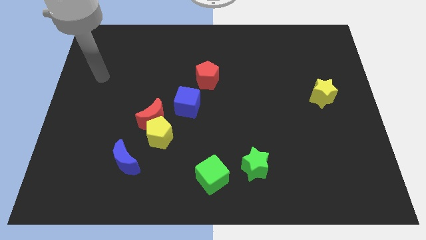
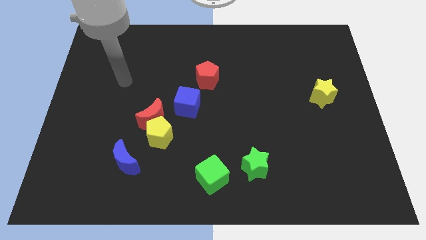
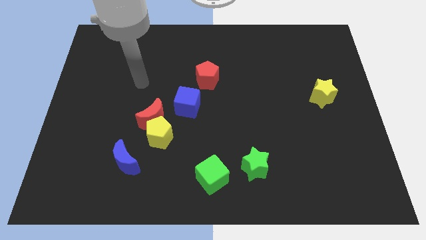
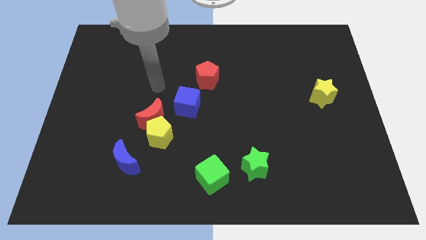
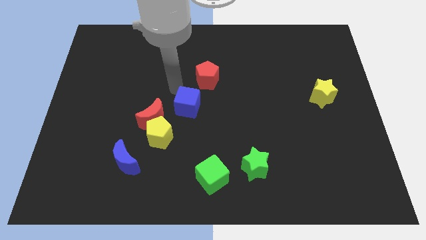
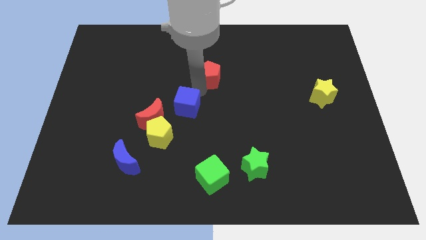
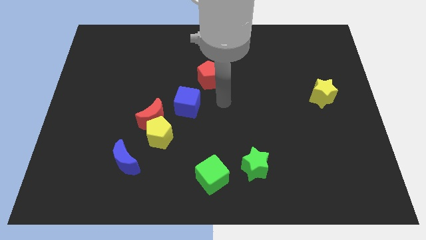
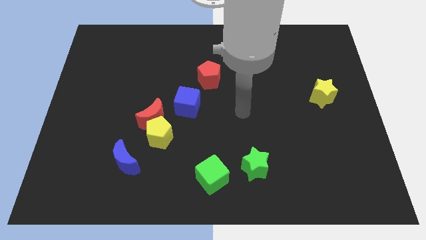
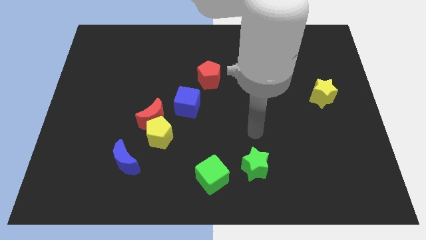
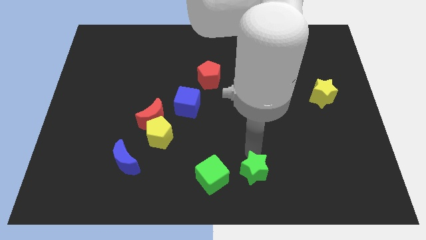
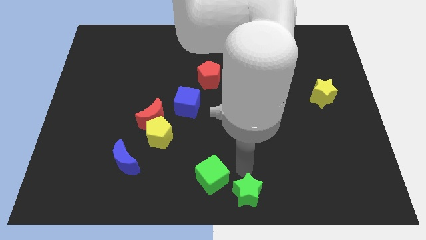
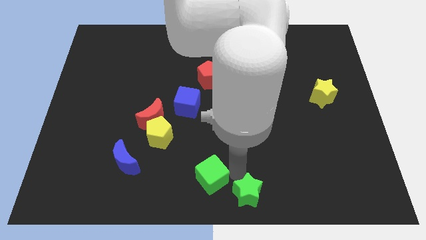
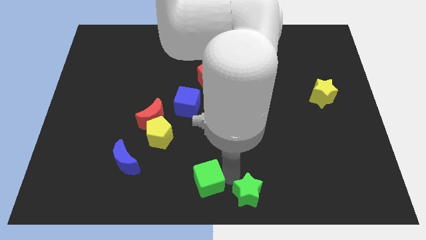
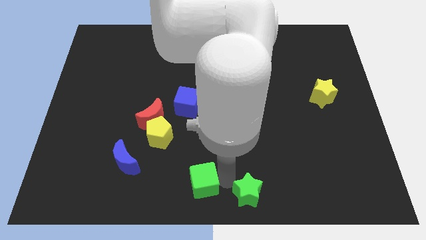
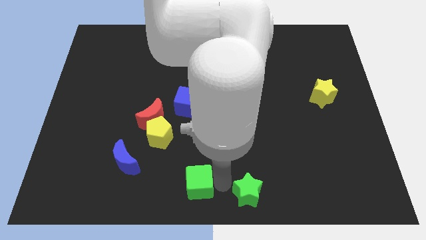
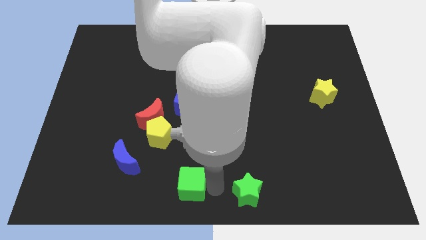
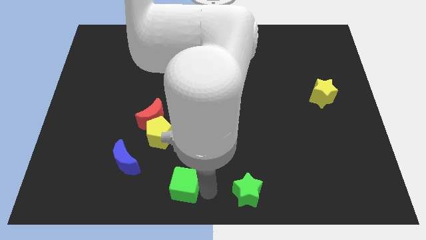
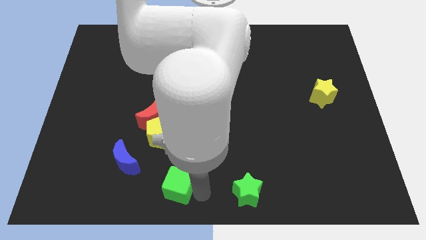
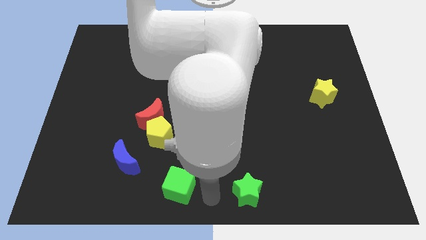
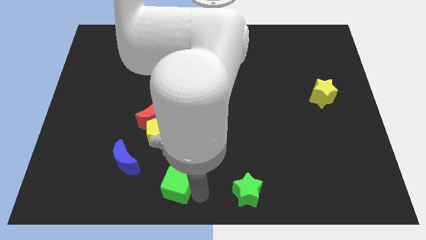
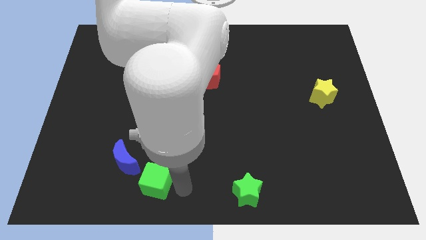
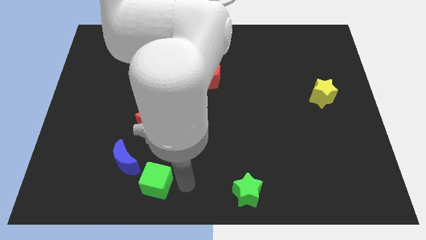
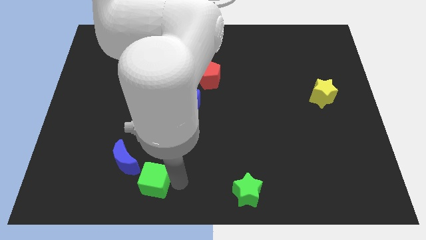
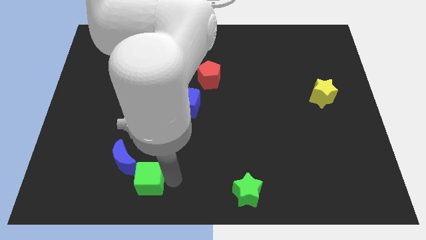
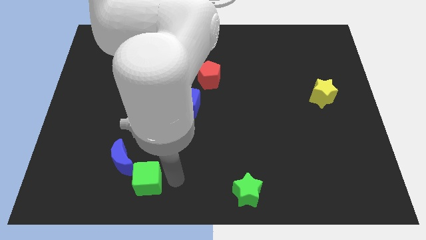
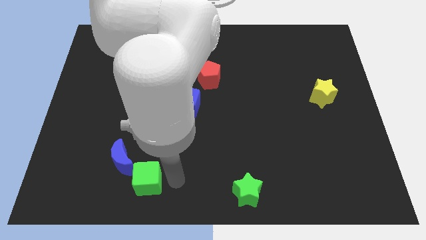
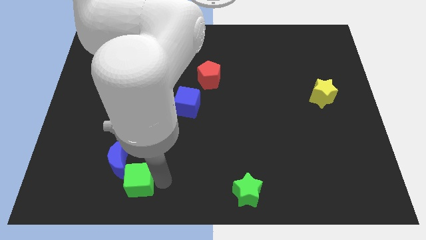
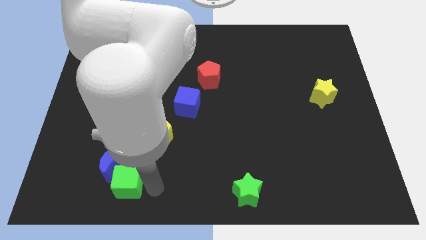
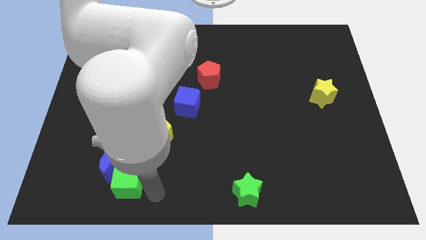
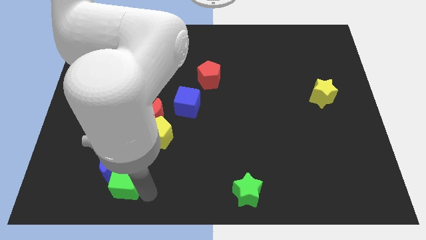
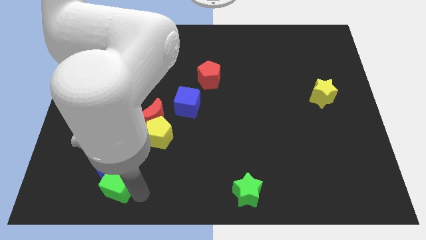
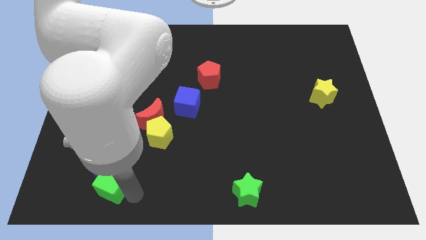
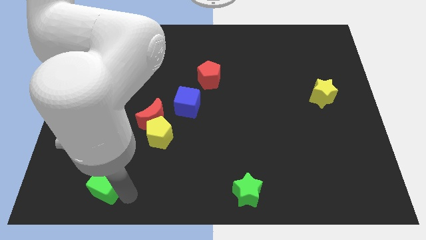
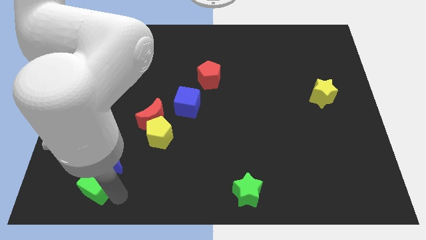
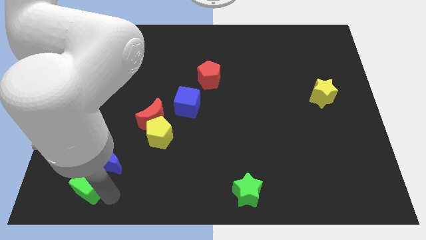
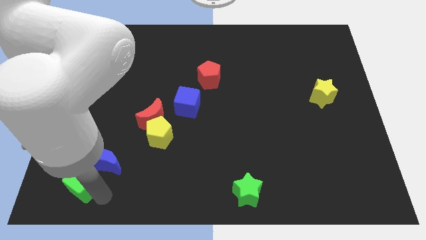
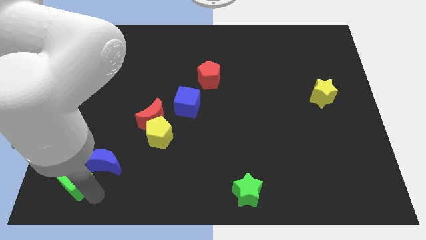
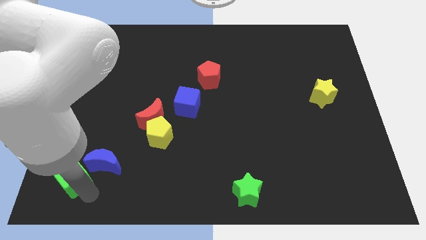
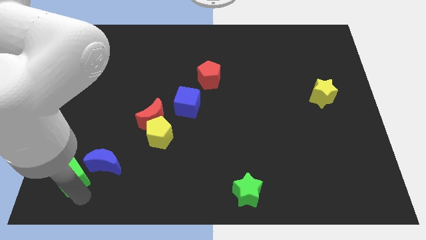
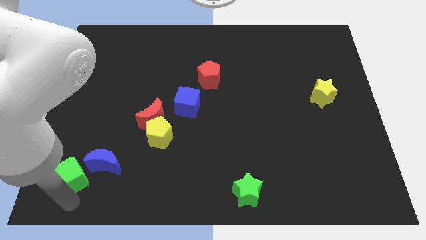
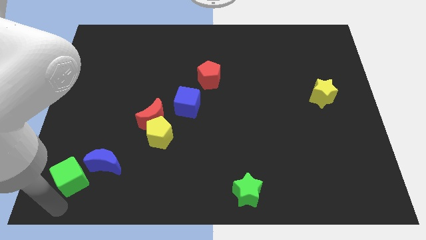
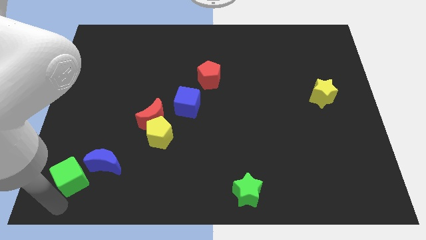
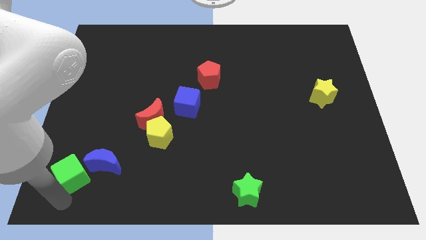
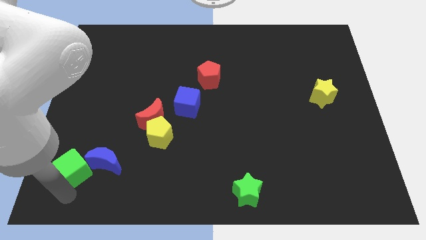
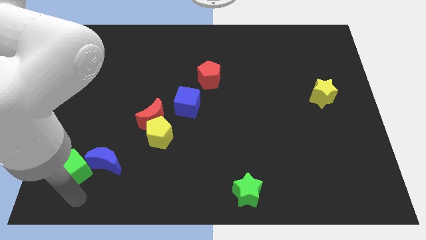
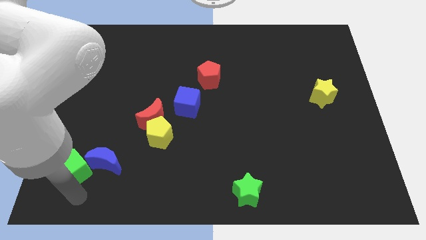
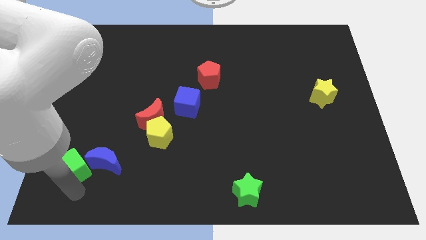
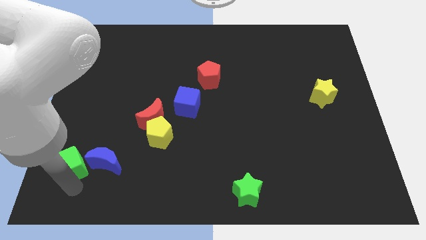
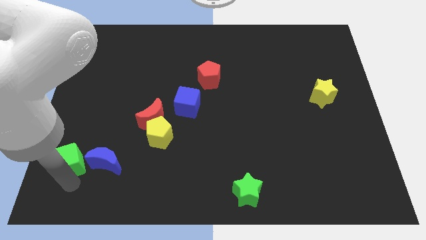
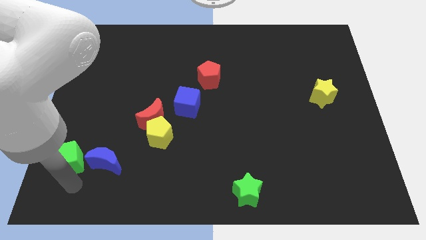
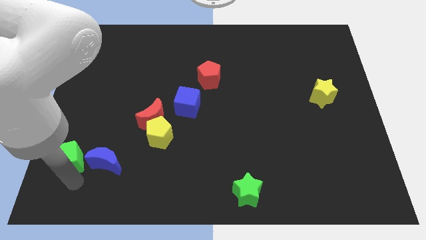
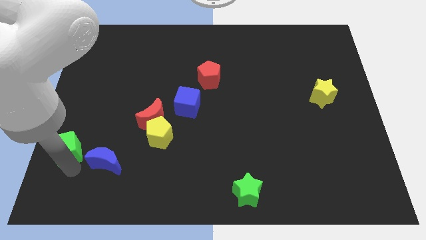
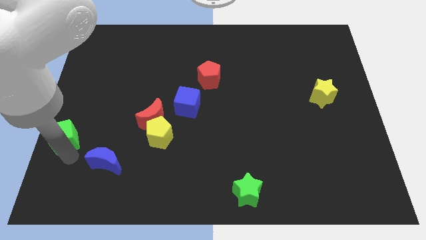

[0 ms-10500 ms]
move the green cube to the left side
